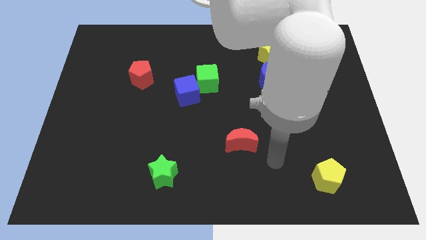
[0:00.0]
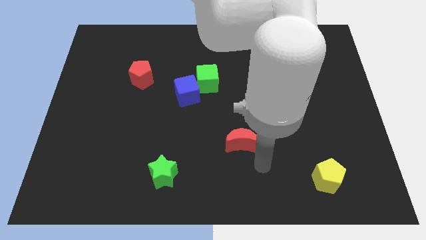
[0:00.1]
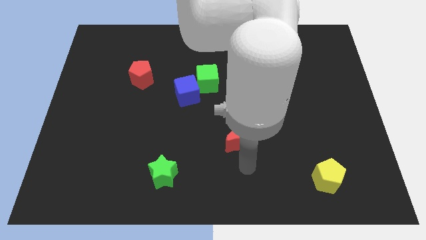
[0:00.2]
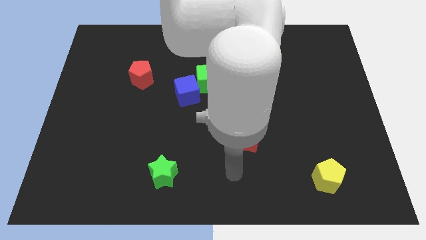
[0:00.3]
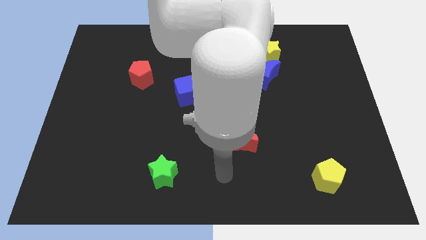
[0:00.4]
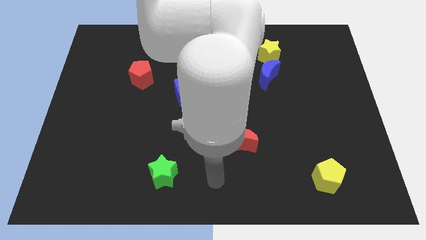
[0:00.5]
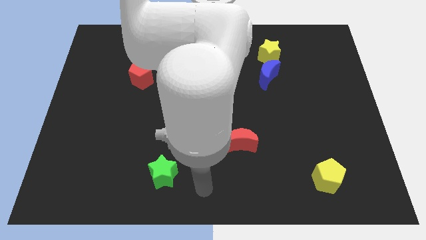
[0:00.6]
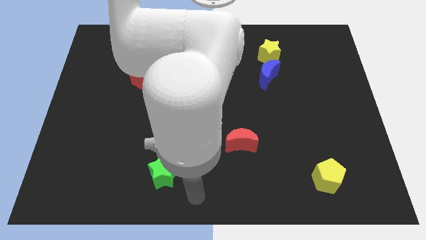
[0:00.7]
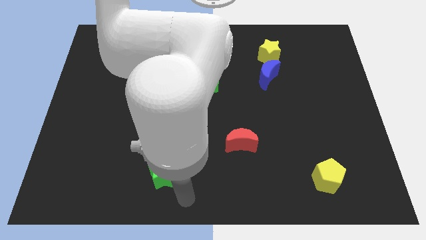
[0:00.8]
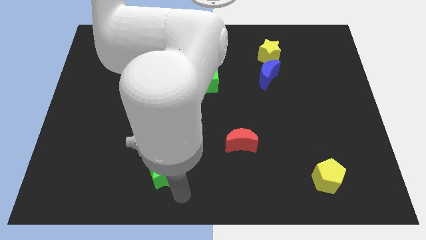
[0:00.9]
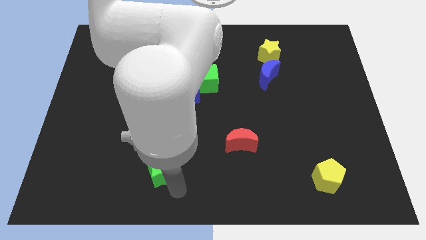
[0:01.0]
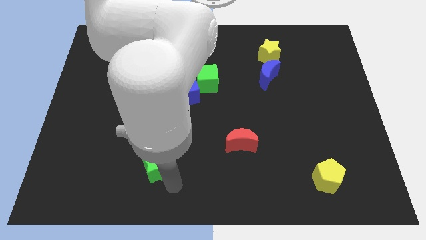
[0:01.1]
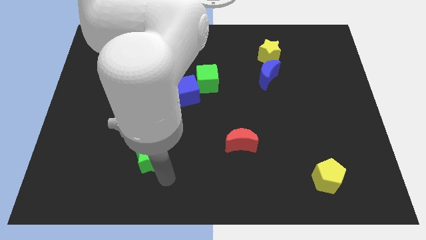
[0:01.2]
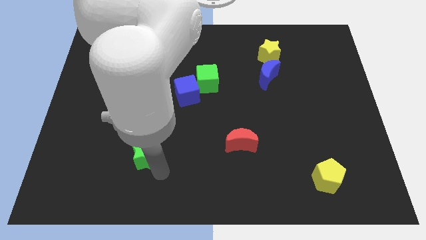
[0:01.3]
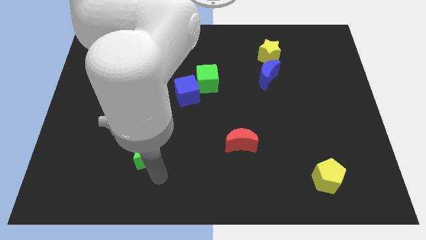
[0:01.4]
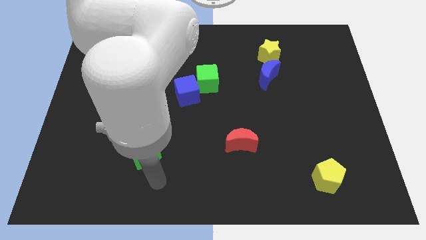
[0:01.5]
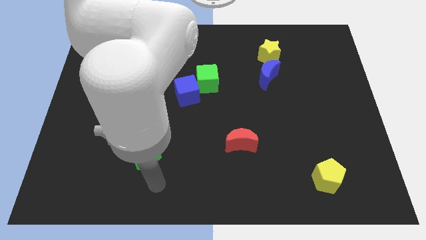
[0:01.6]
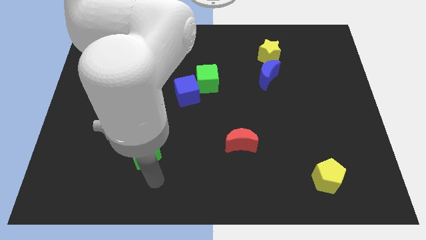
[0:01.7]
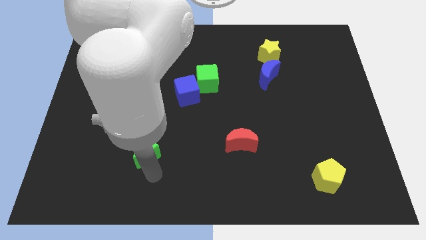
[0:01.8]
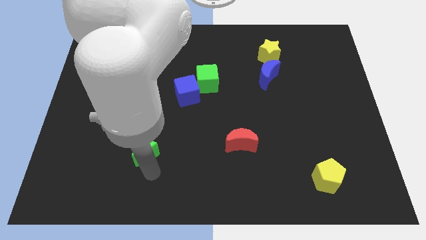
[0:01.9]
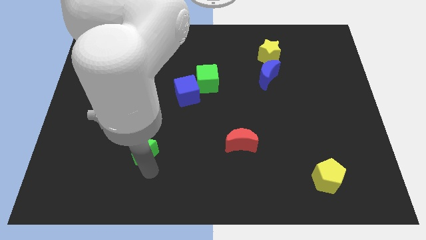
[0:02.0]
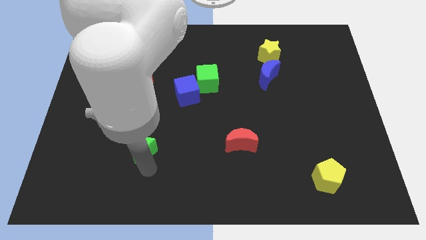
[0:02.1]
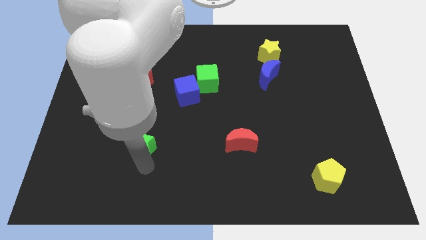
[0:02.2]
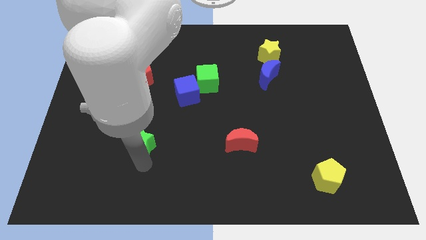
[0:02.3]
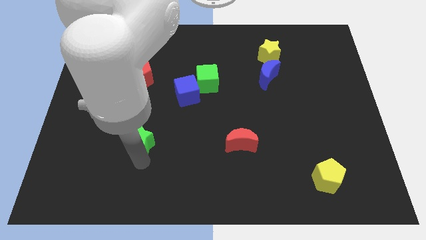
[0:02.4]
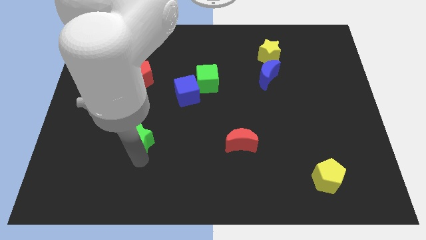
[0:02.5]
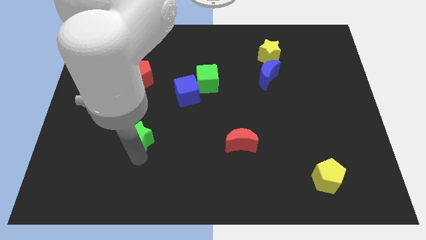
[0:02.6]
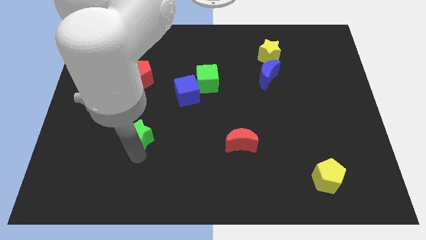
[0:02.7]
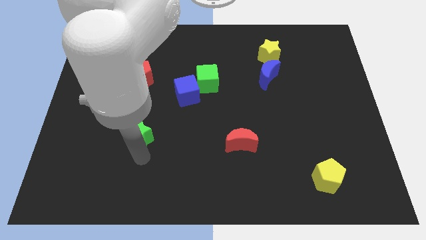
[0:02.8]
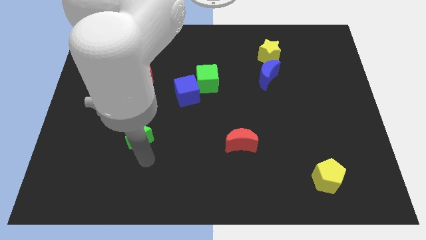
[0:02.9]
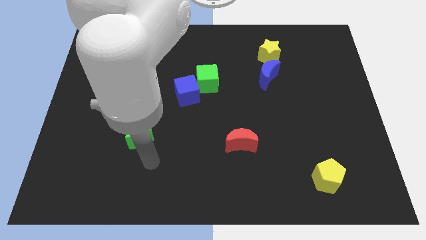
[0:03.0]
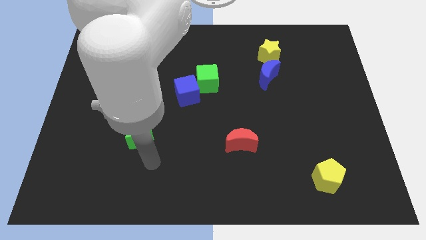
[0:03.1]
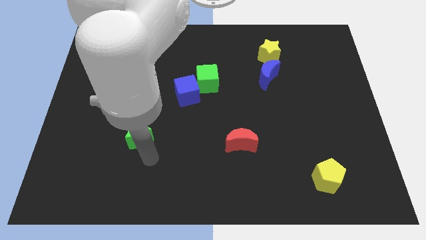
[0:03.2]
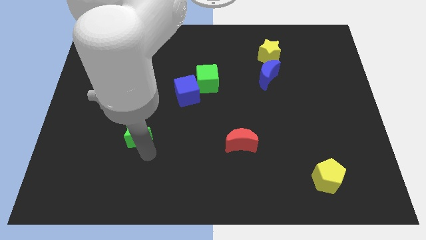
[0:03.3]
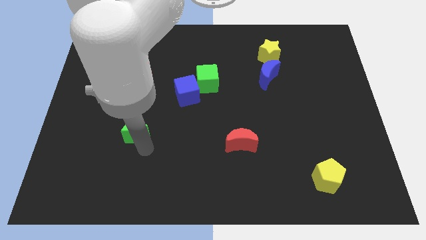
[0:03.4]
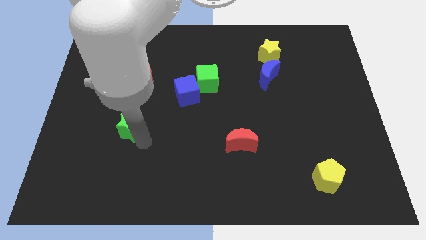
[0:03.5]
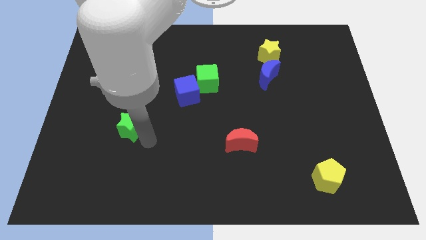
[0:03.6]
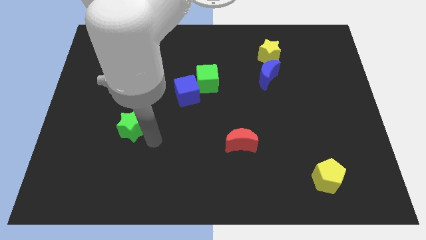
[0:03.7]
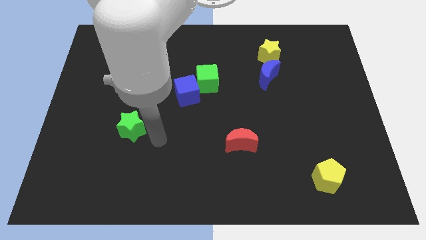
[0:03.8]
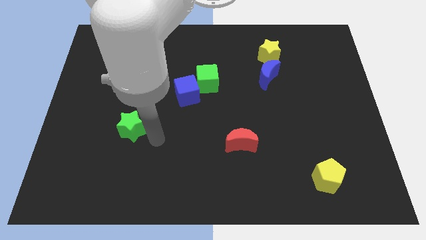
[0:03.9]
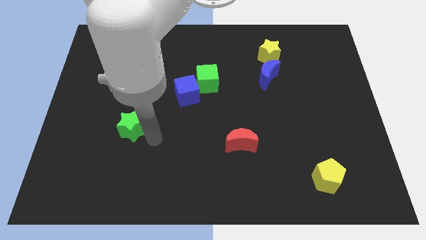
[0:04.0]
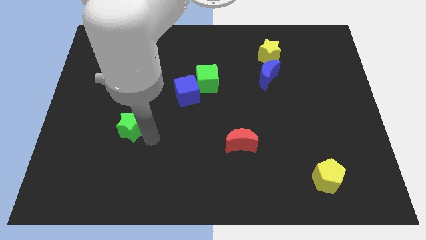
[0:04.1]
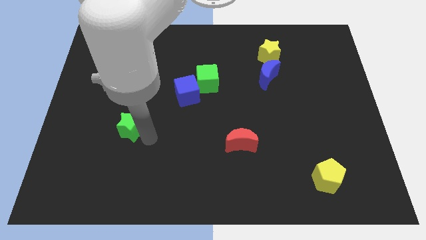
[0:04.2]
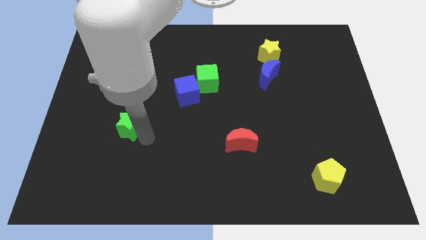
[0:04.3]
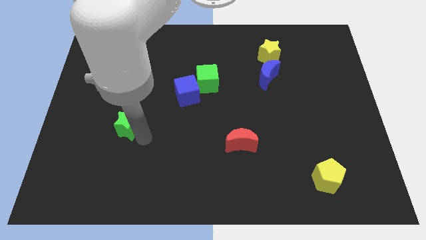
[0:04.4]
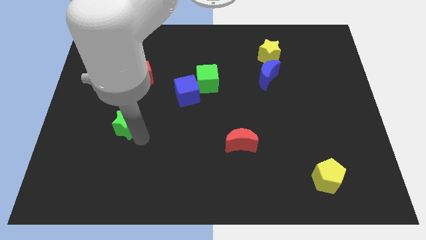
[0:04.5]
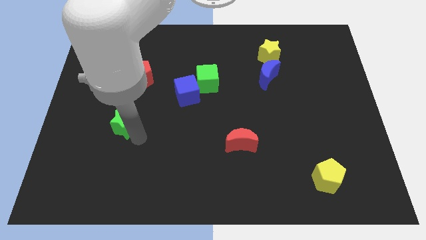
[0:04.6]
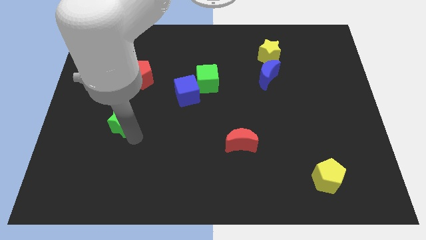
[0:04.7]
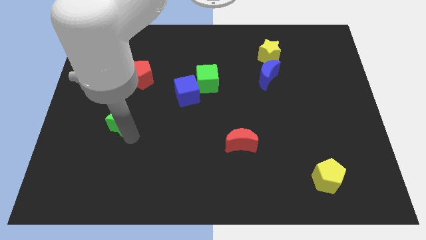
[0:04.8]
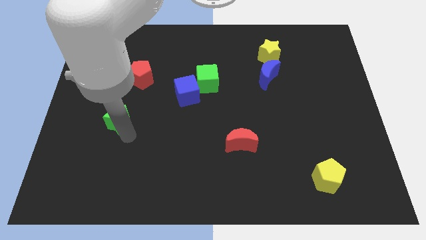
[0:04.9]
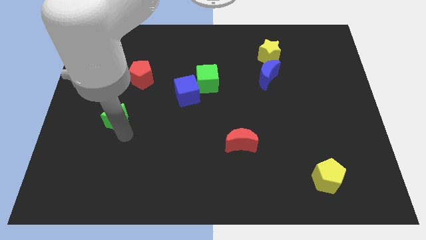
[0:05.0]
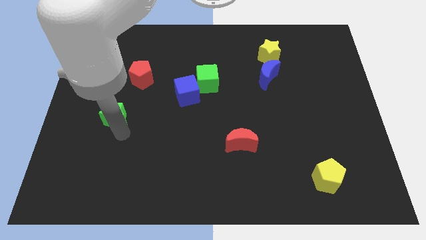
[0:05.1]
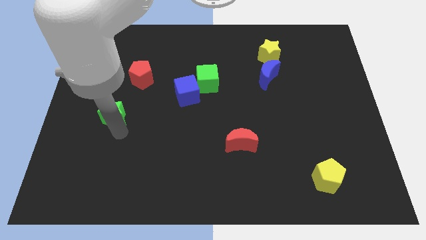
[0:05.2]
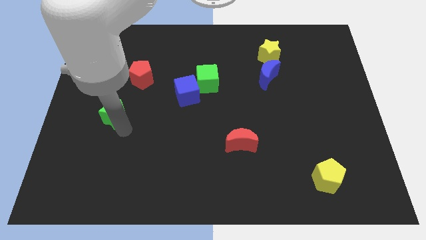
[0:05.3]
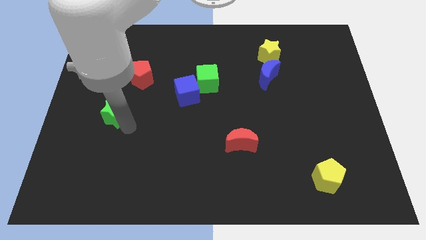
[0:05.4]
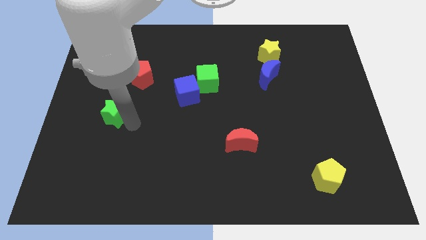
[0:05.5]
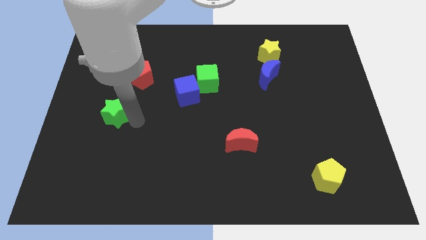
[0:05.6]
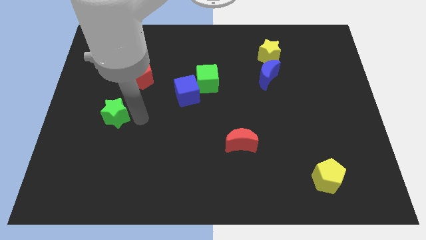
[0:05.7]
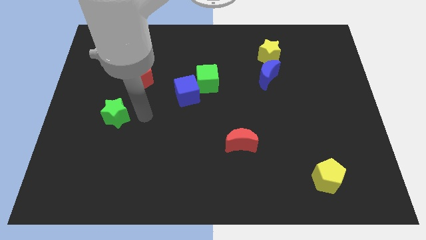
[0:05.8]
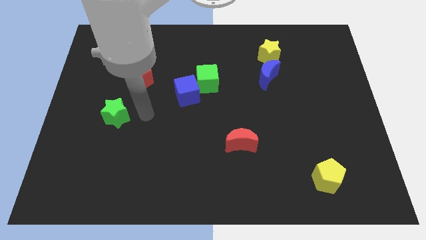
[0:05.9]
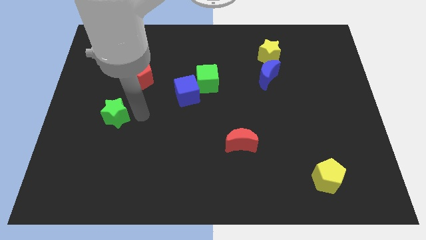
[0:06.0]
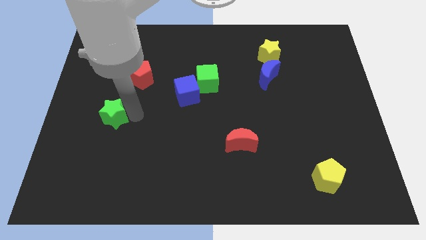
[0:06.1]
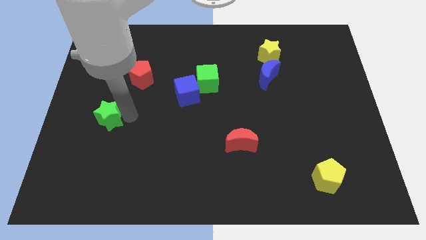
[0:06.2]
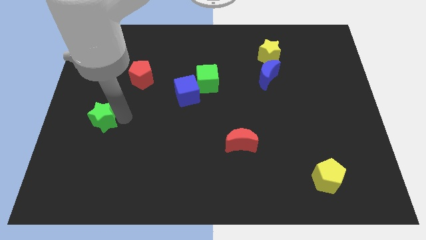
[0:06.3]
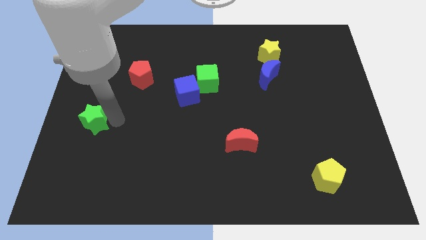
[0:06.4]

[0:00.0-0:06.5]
put the green star to the left side

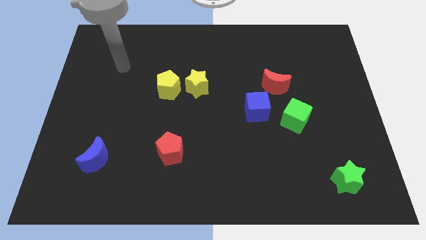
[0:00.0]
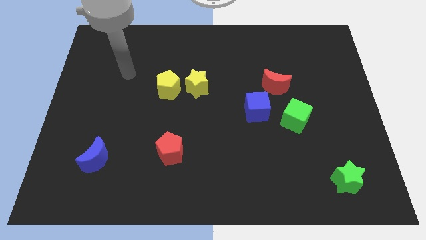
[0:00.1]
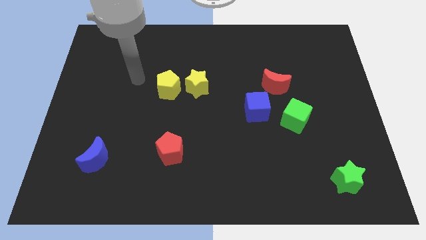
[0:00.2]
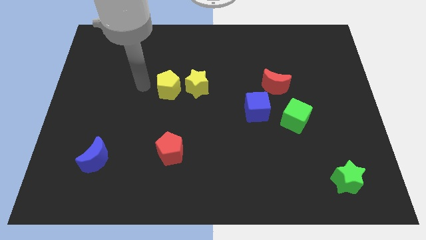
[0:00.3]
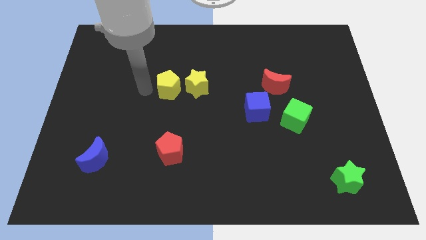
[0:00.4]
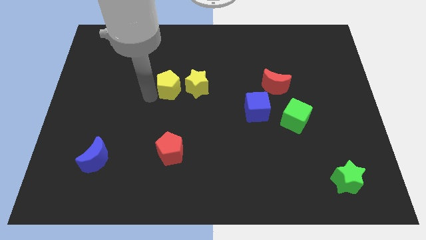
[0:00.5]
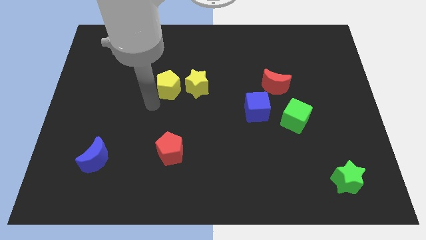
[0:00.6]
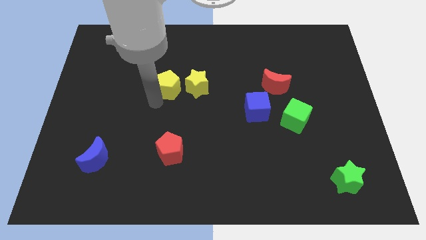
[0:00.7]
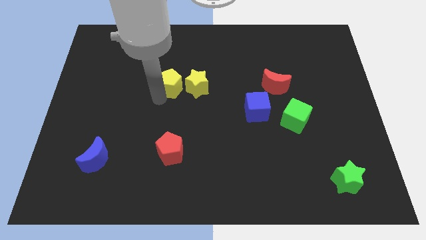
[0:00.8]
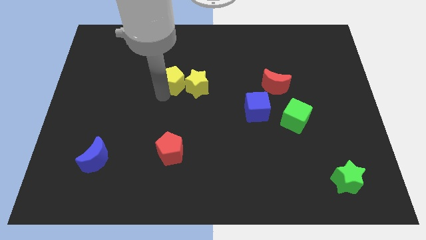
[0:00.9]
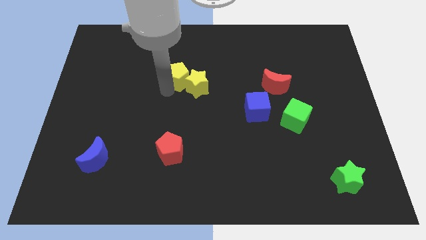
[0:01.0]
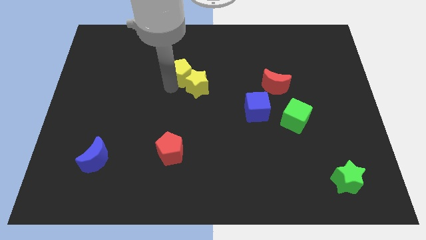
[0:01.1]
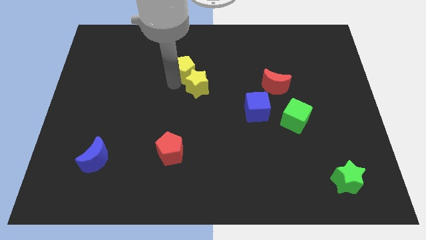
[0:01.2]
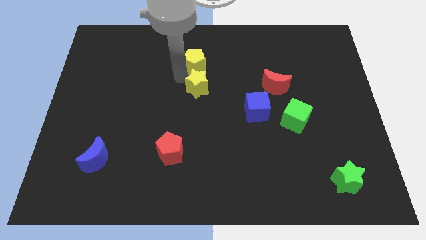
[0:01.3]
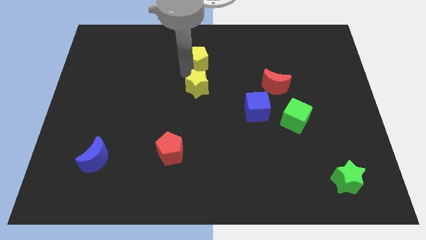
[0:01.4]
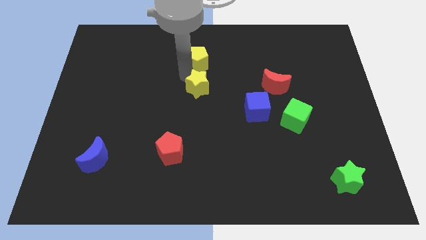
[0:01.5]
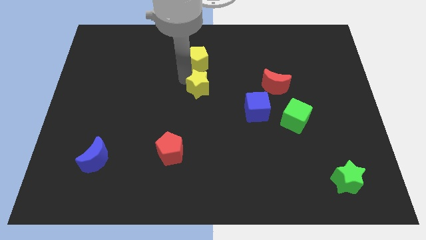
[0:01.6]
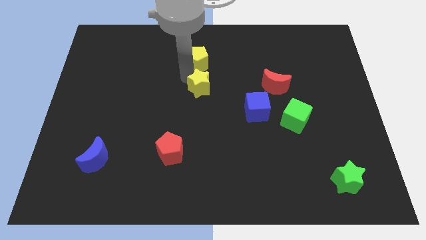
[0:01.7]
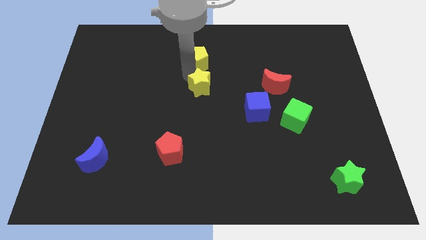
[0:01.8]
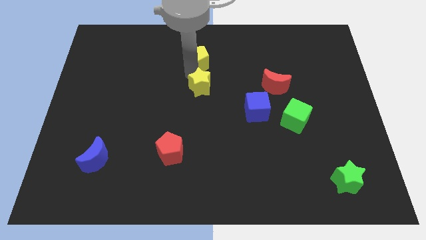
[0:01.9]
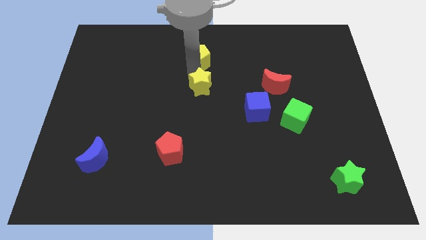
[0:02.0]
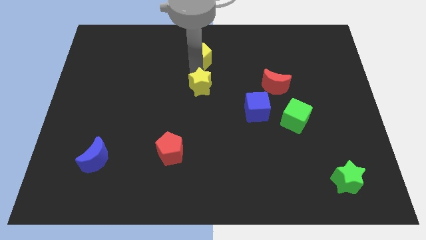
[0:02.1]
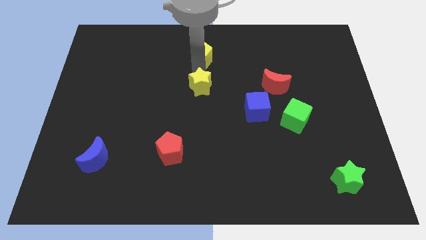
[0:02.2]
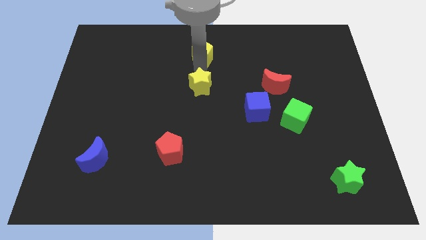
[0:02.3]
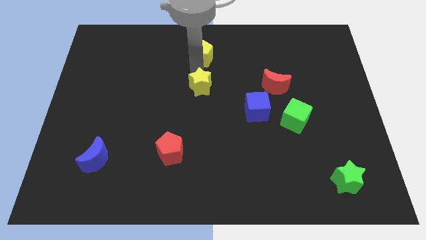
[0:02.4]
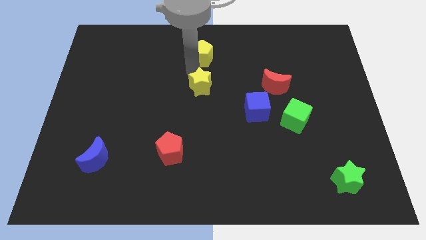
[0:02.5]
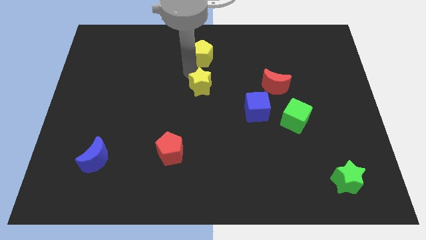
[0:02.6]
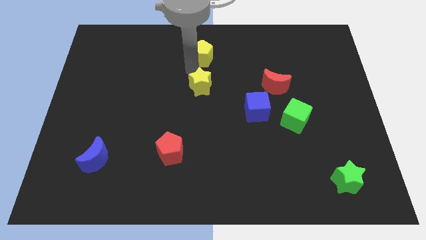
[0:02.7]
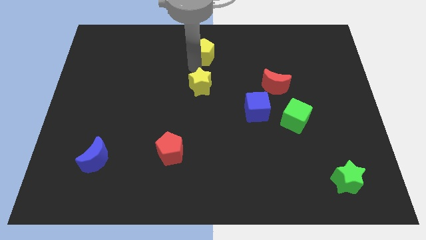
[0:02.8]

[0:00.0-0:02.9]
move the yellow pentagon to the top
